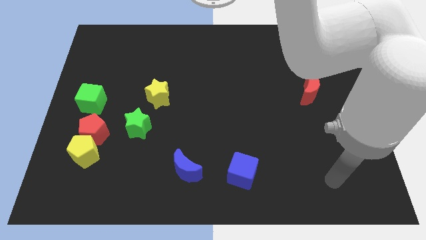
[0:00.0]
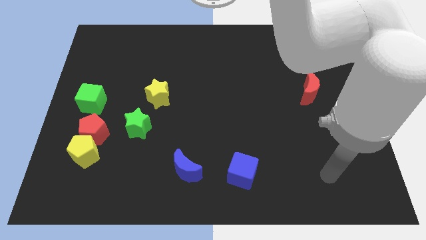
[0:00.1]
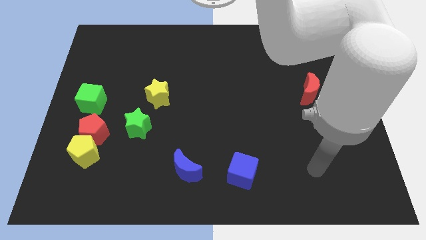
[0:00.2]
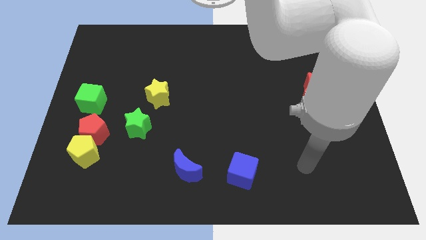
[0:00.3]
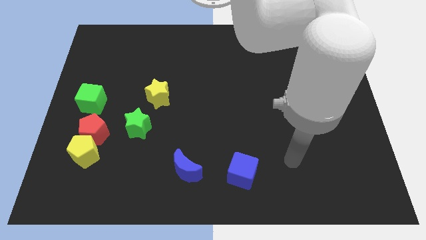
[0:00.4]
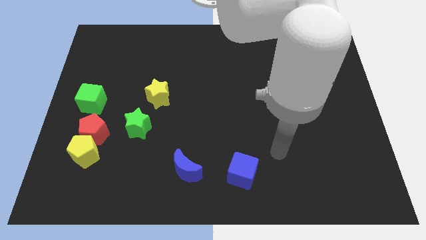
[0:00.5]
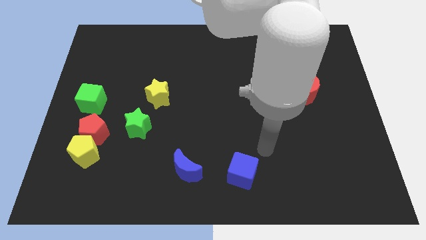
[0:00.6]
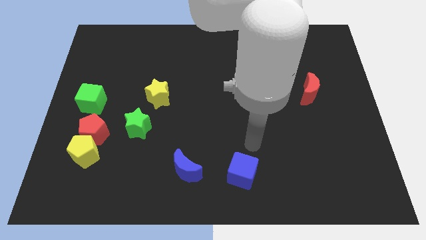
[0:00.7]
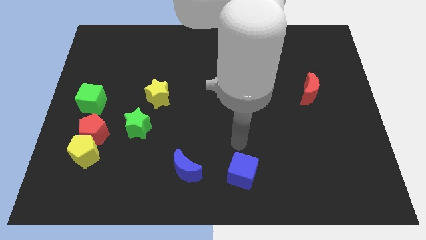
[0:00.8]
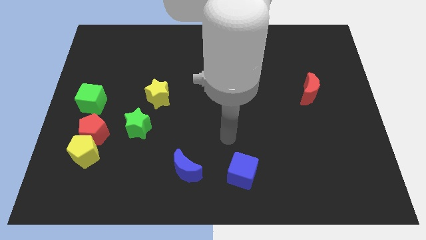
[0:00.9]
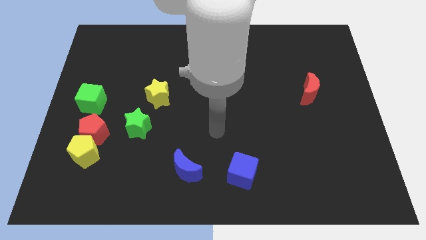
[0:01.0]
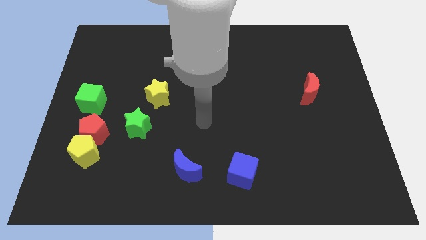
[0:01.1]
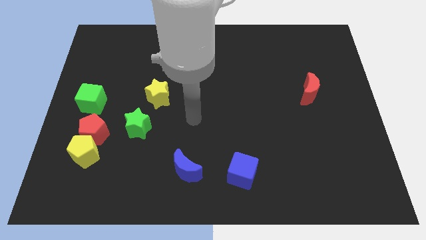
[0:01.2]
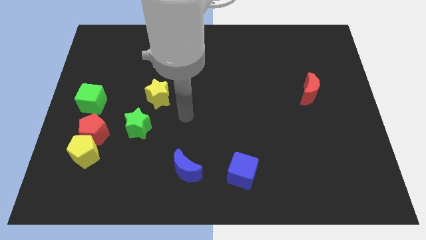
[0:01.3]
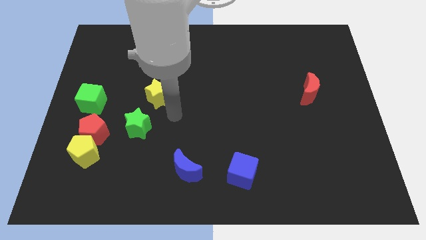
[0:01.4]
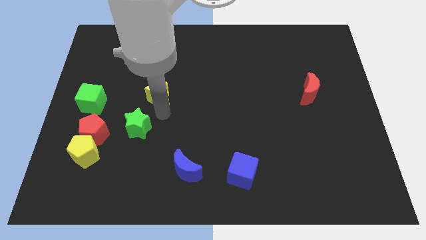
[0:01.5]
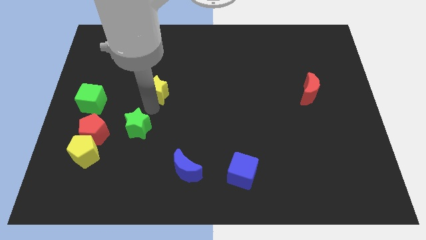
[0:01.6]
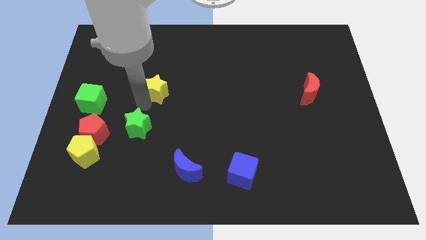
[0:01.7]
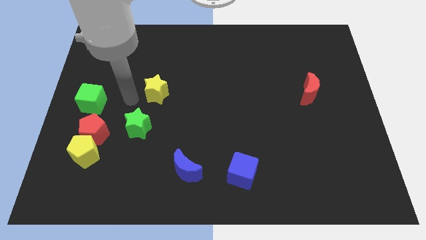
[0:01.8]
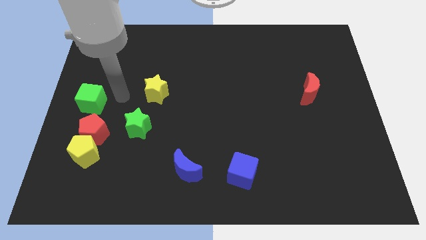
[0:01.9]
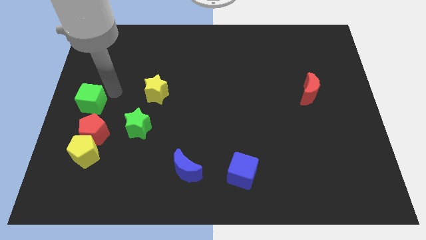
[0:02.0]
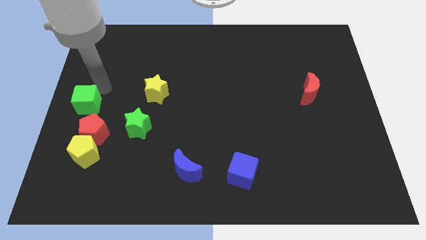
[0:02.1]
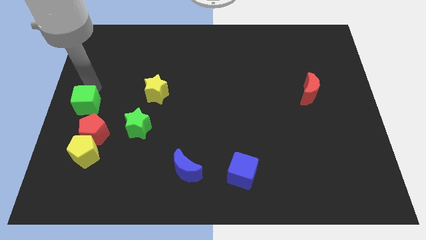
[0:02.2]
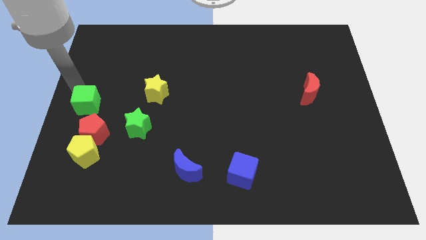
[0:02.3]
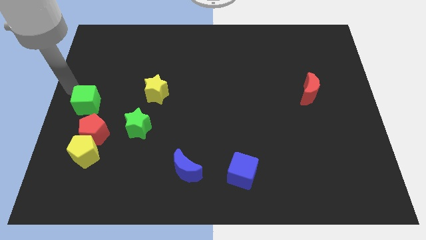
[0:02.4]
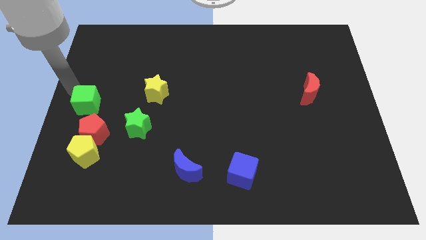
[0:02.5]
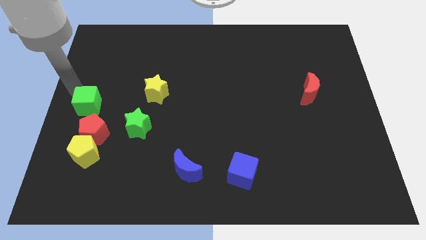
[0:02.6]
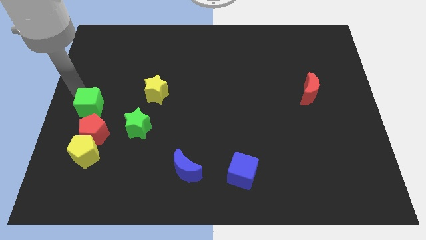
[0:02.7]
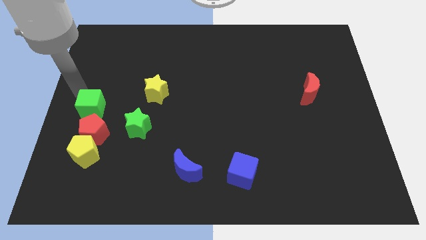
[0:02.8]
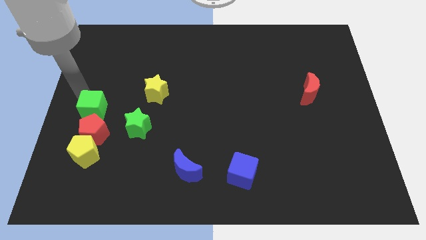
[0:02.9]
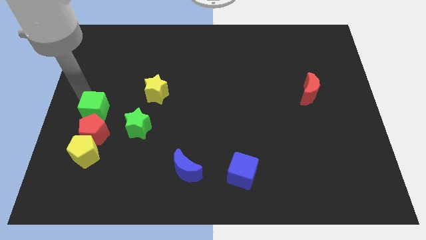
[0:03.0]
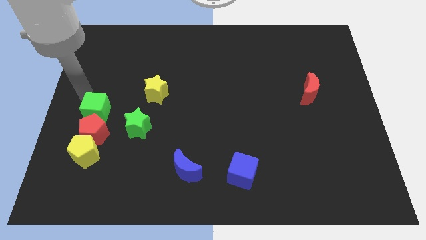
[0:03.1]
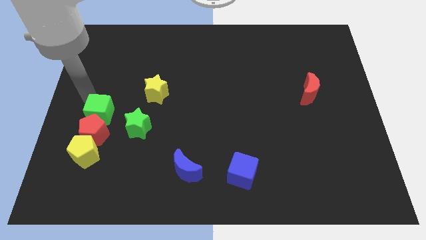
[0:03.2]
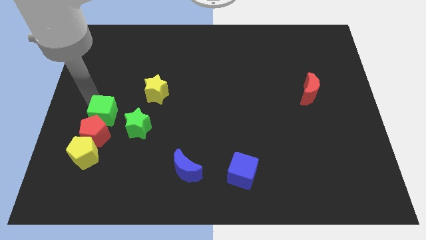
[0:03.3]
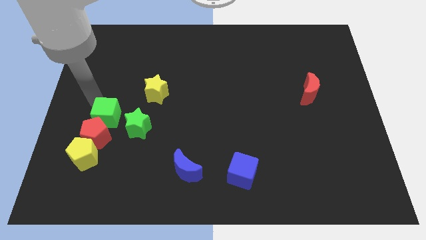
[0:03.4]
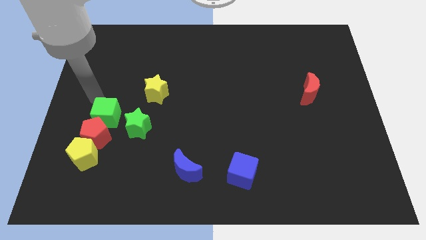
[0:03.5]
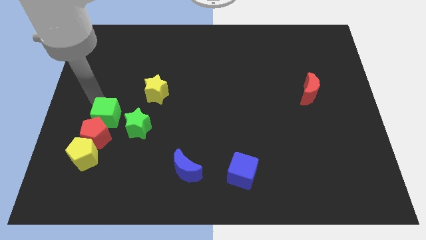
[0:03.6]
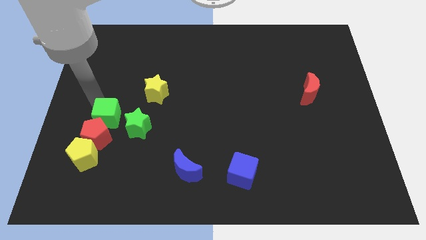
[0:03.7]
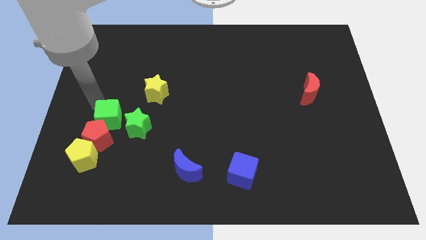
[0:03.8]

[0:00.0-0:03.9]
slightly push the green cube diagonally down and to the right

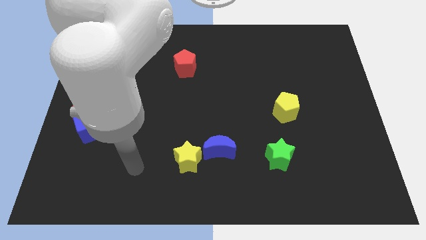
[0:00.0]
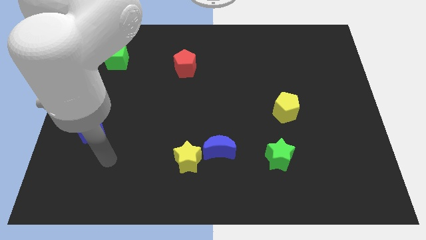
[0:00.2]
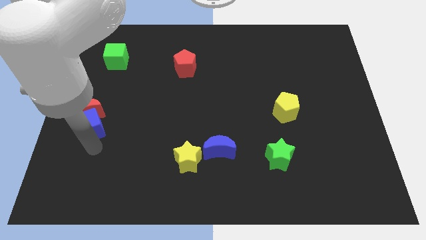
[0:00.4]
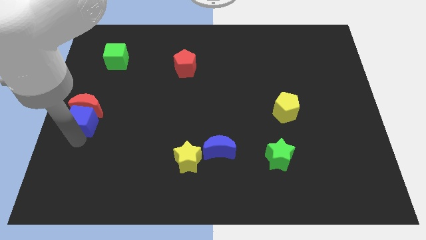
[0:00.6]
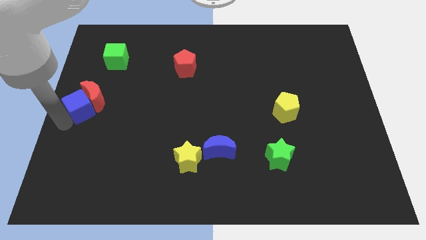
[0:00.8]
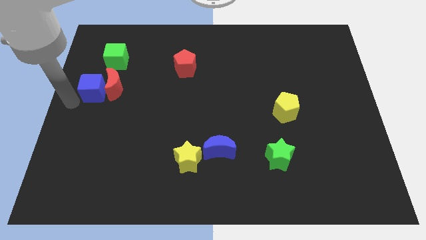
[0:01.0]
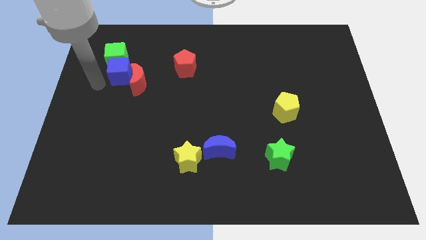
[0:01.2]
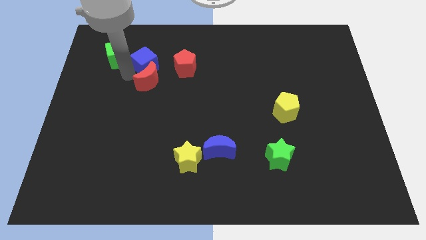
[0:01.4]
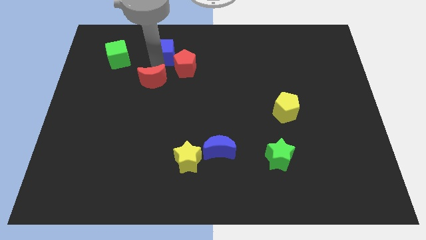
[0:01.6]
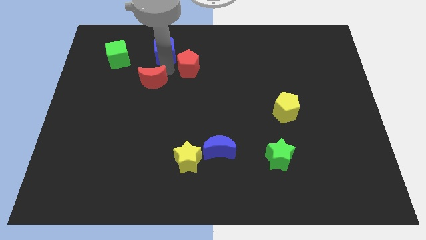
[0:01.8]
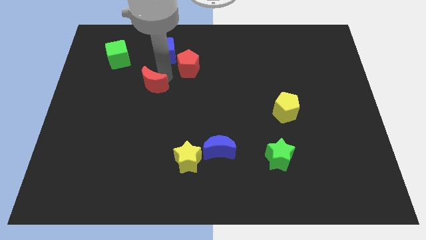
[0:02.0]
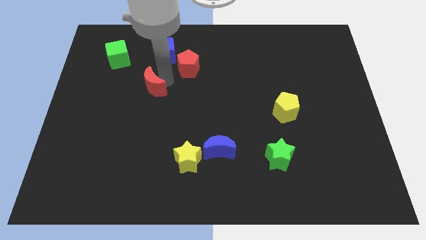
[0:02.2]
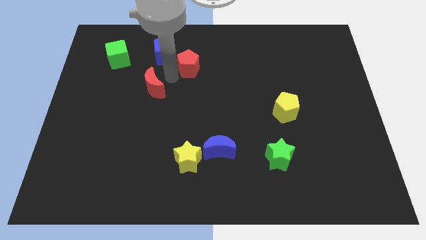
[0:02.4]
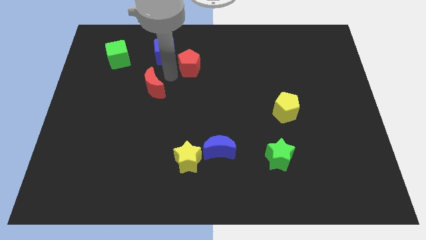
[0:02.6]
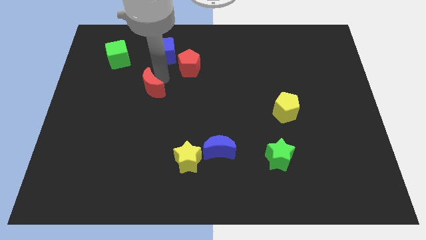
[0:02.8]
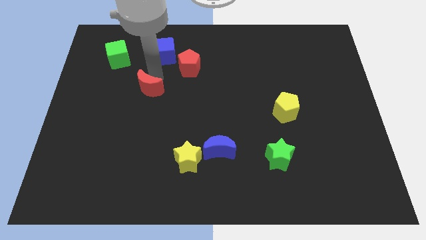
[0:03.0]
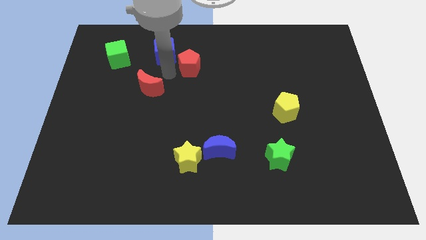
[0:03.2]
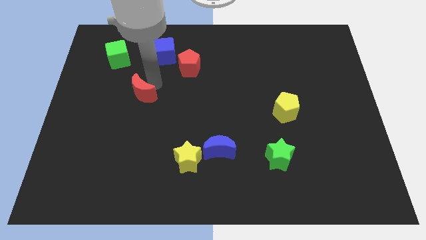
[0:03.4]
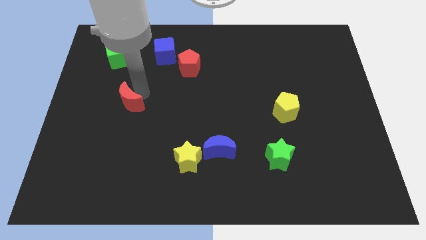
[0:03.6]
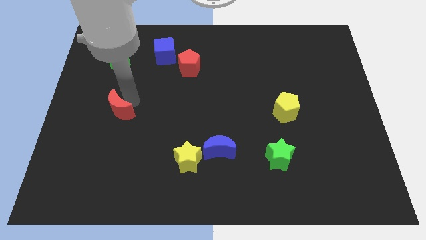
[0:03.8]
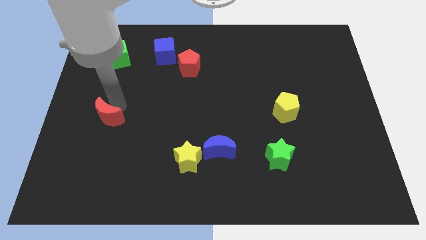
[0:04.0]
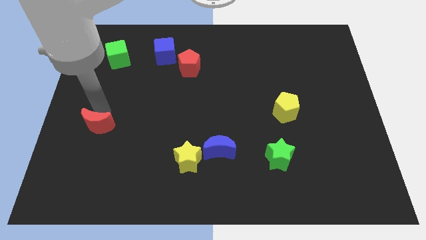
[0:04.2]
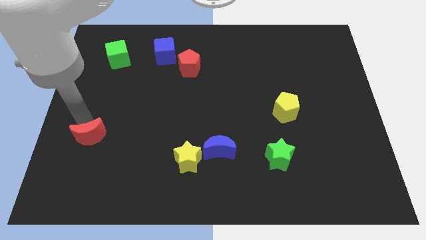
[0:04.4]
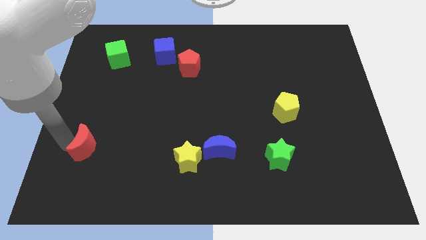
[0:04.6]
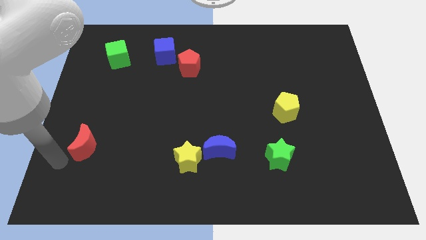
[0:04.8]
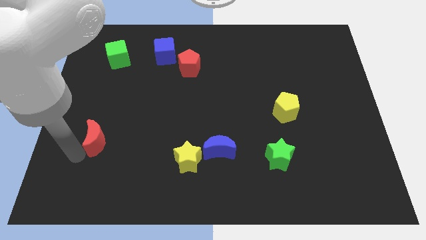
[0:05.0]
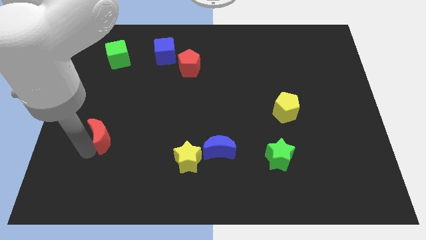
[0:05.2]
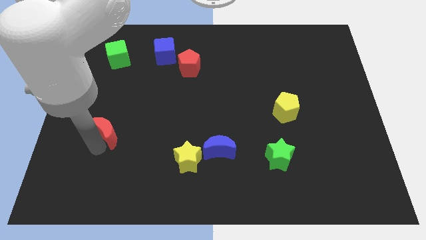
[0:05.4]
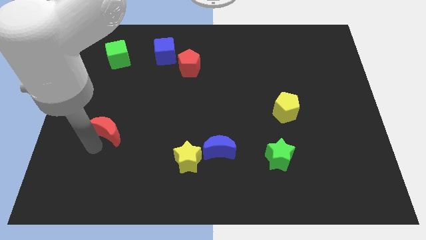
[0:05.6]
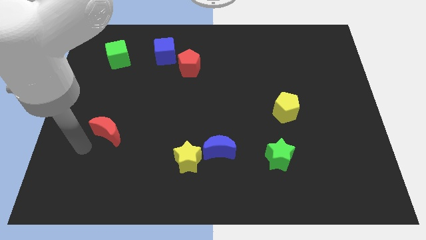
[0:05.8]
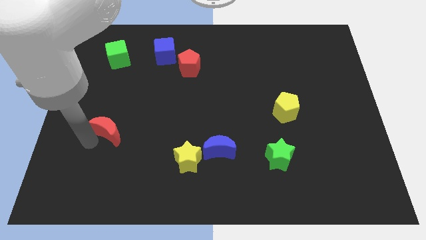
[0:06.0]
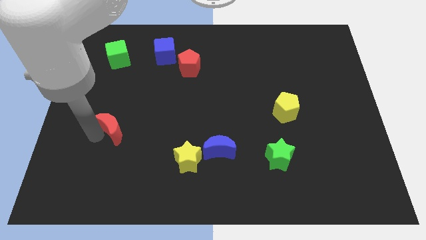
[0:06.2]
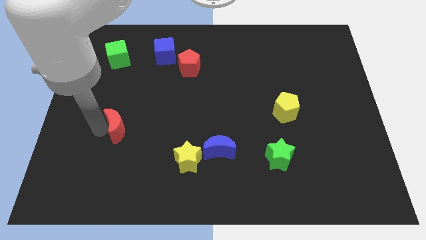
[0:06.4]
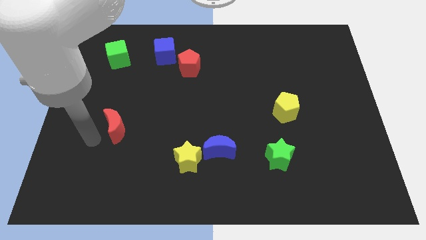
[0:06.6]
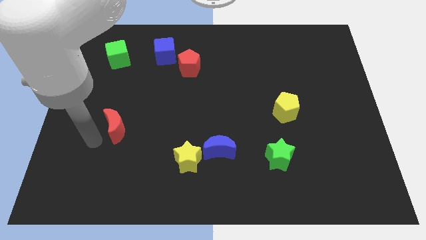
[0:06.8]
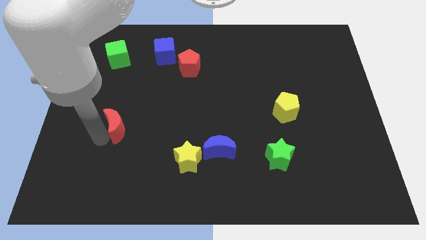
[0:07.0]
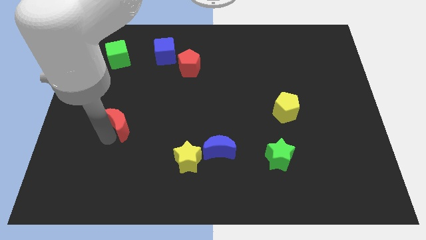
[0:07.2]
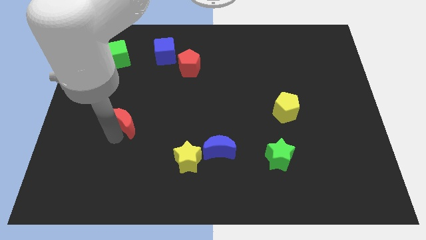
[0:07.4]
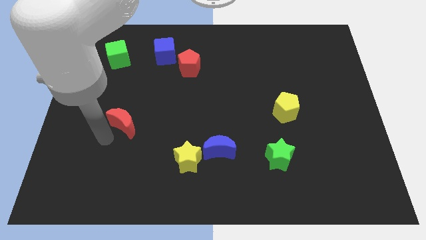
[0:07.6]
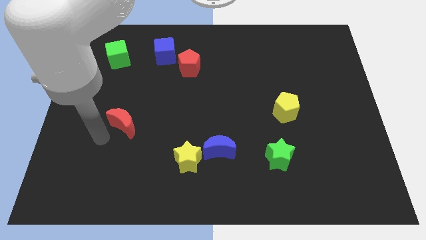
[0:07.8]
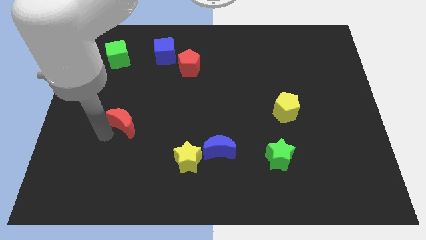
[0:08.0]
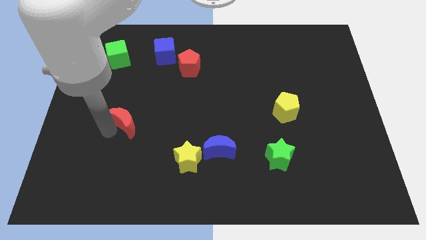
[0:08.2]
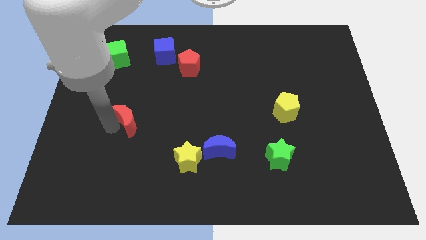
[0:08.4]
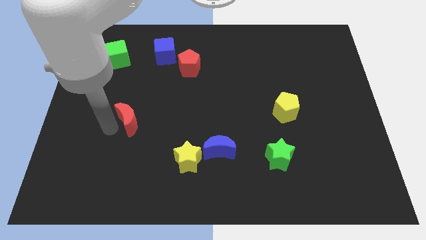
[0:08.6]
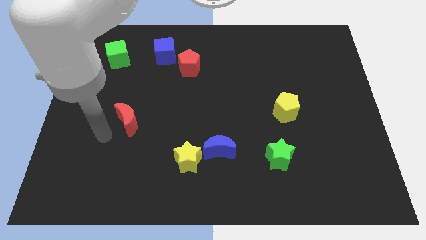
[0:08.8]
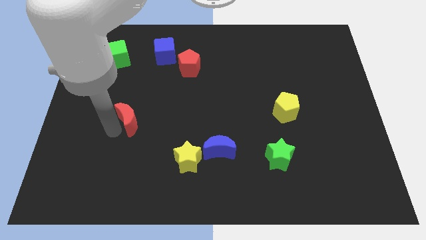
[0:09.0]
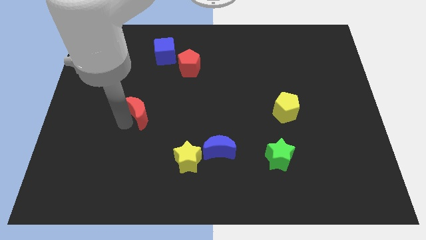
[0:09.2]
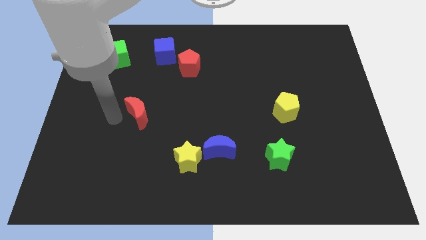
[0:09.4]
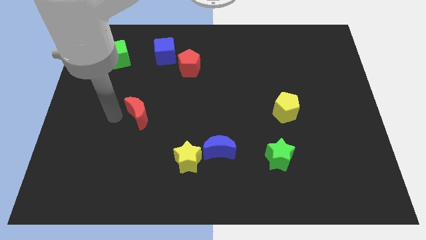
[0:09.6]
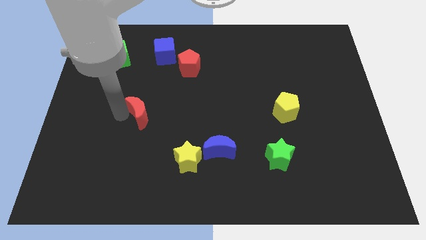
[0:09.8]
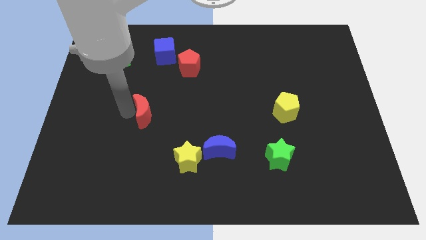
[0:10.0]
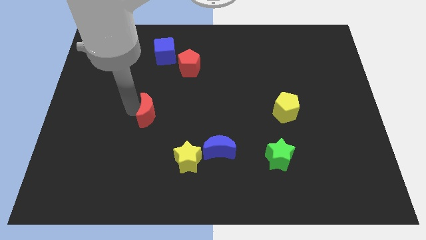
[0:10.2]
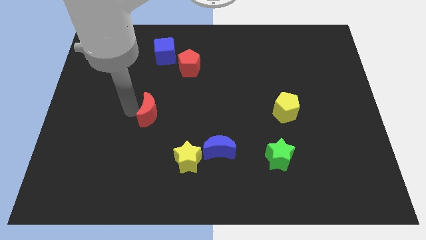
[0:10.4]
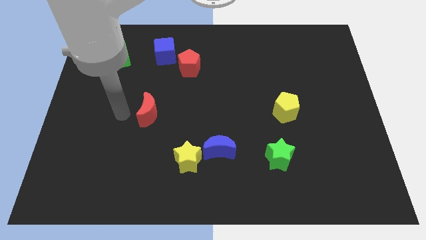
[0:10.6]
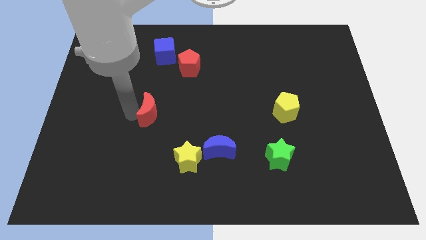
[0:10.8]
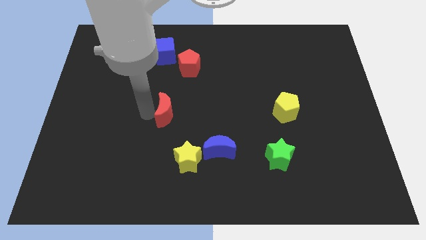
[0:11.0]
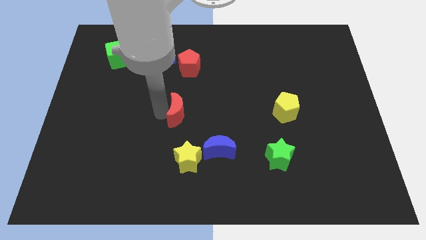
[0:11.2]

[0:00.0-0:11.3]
push the red moon to the right
